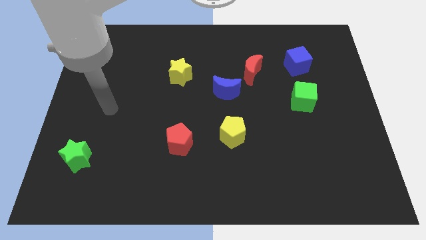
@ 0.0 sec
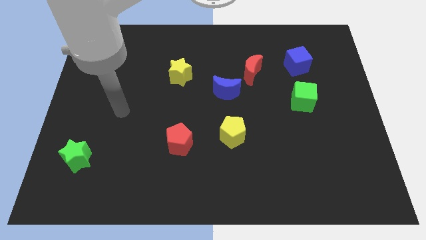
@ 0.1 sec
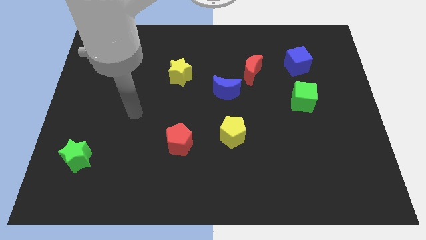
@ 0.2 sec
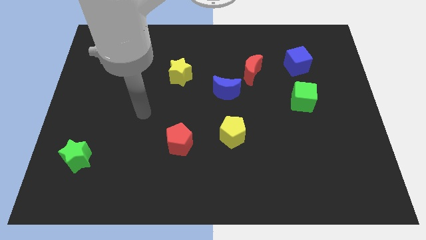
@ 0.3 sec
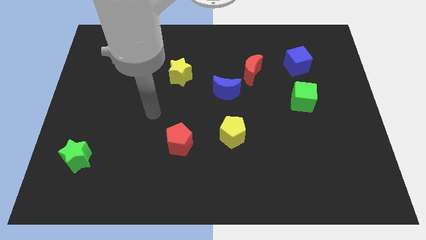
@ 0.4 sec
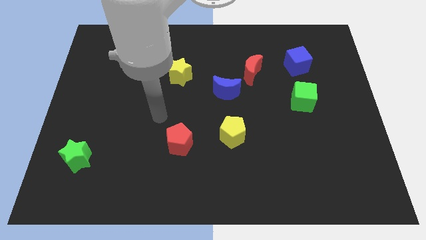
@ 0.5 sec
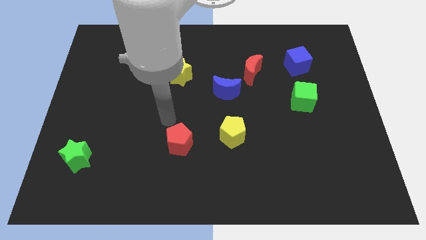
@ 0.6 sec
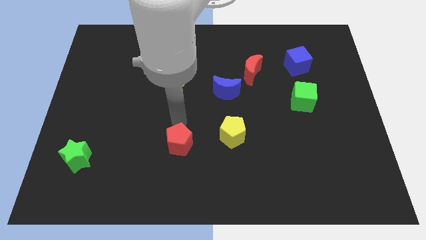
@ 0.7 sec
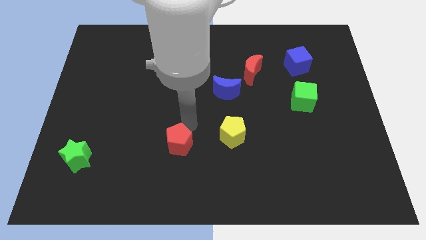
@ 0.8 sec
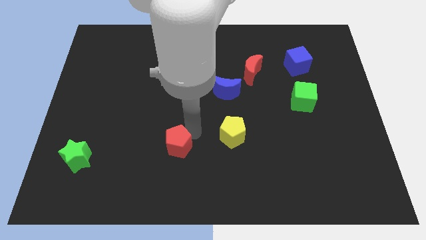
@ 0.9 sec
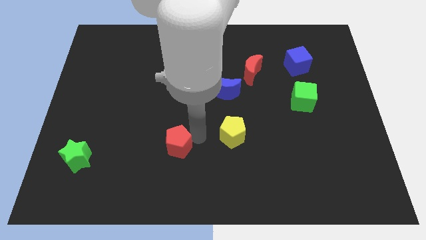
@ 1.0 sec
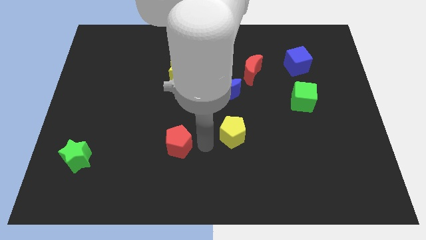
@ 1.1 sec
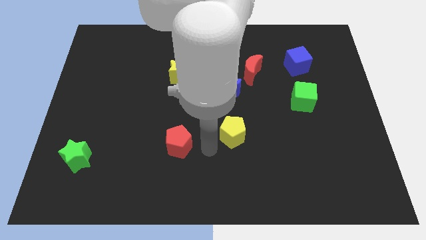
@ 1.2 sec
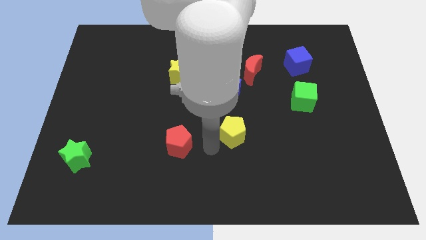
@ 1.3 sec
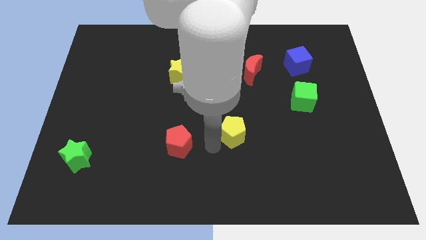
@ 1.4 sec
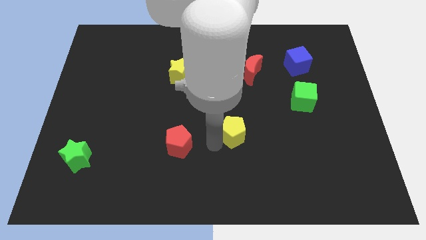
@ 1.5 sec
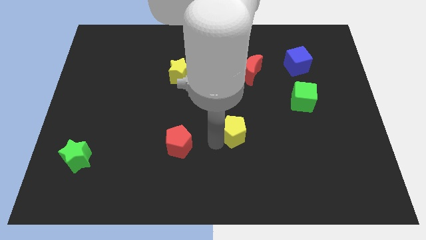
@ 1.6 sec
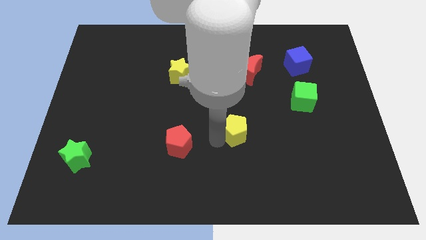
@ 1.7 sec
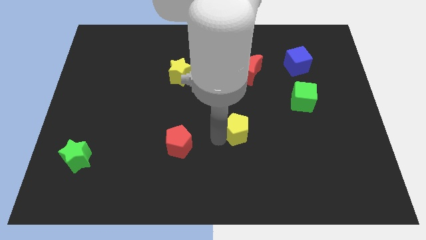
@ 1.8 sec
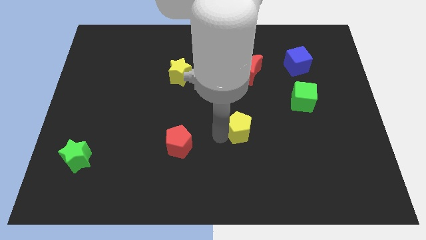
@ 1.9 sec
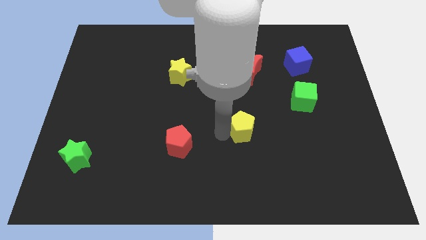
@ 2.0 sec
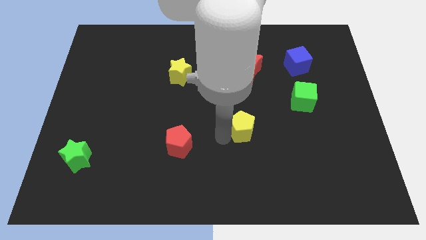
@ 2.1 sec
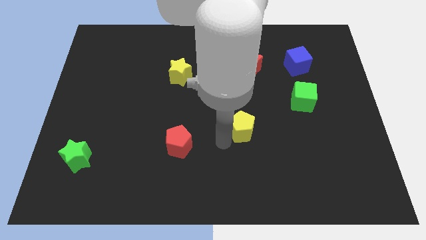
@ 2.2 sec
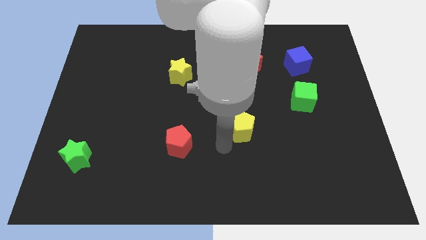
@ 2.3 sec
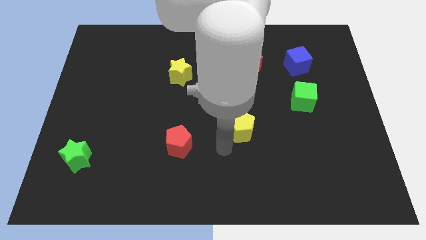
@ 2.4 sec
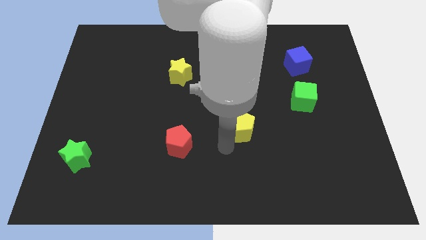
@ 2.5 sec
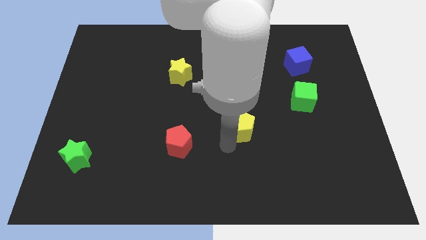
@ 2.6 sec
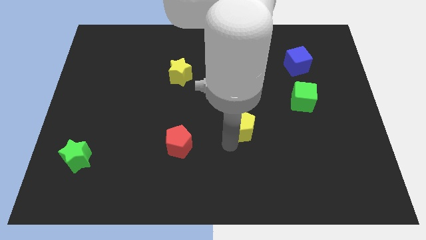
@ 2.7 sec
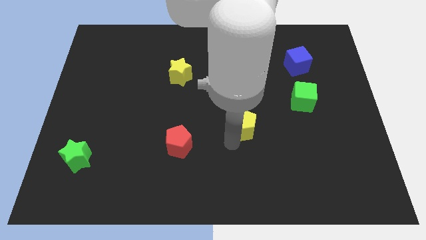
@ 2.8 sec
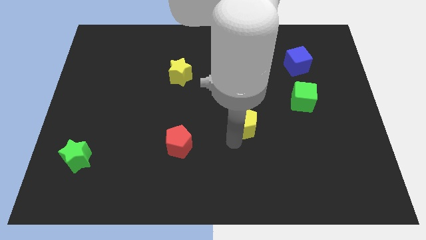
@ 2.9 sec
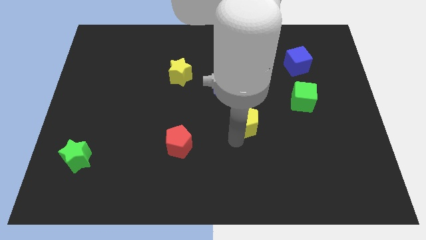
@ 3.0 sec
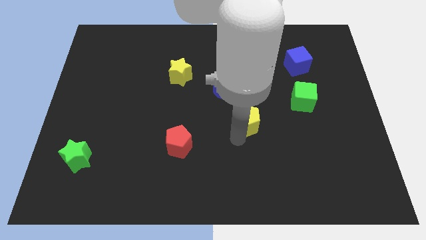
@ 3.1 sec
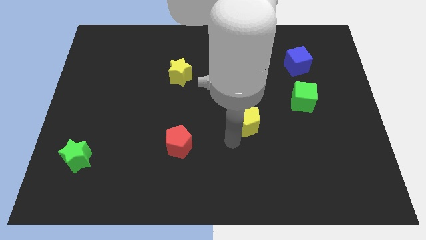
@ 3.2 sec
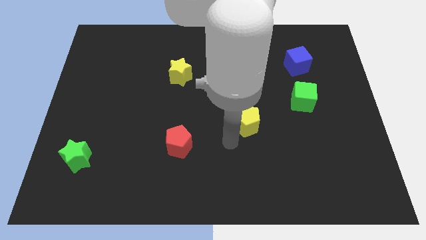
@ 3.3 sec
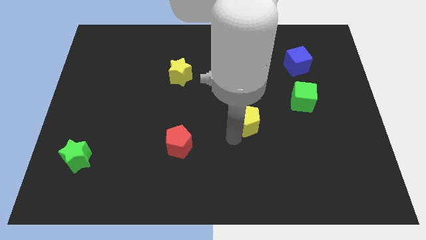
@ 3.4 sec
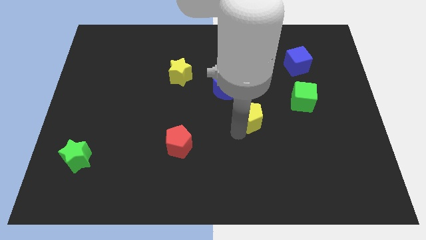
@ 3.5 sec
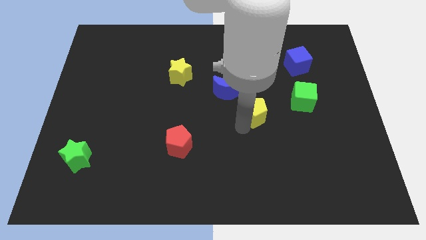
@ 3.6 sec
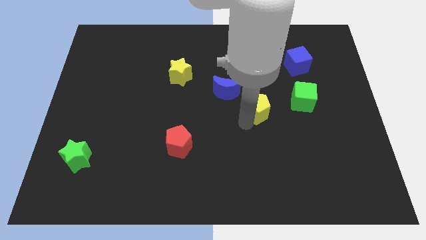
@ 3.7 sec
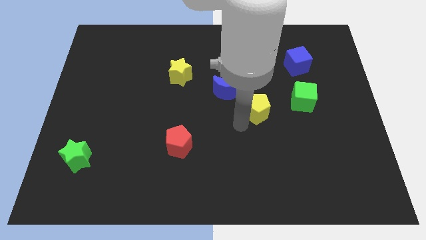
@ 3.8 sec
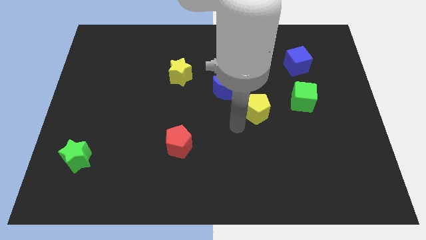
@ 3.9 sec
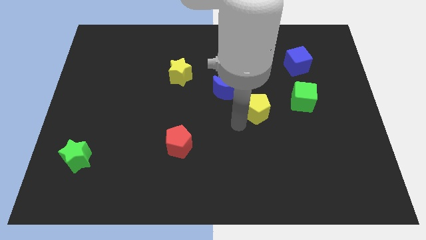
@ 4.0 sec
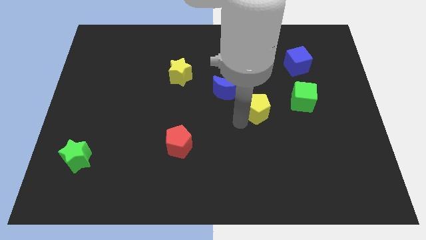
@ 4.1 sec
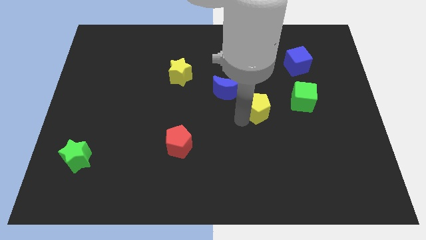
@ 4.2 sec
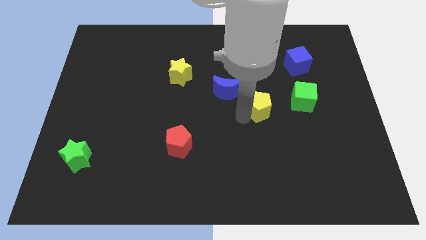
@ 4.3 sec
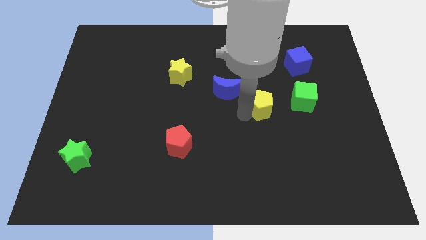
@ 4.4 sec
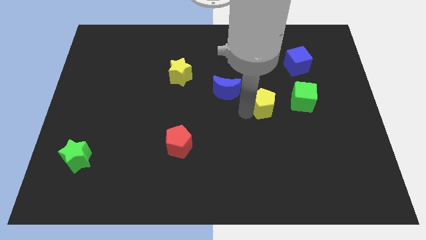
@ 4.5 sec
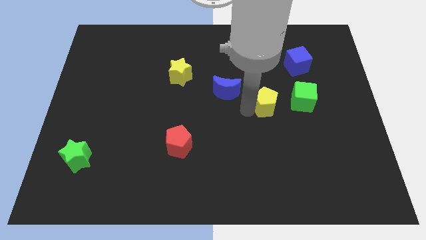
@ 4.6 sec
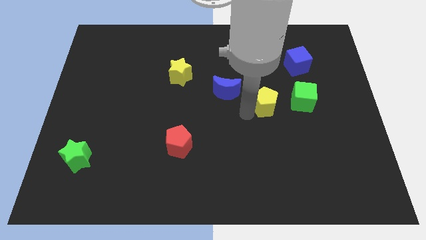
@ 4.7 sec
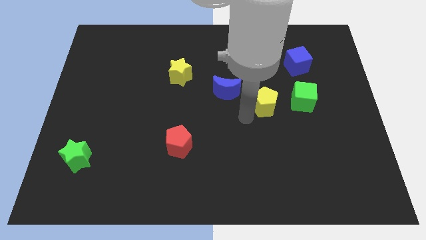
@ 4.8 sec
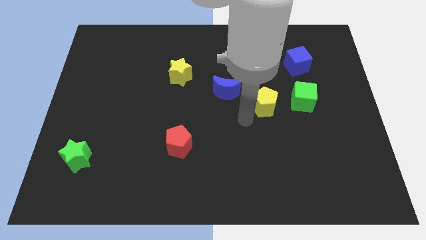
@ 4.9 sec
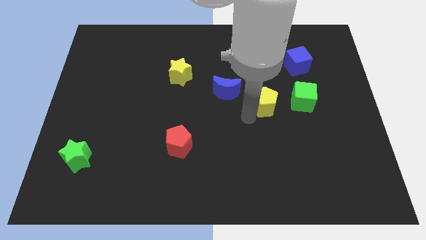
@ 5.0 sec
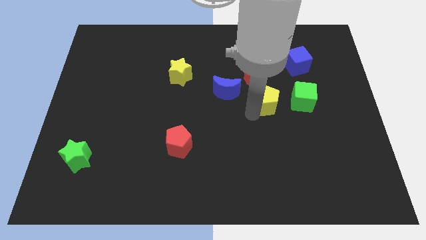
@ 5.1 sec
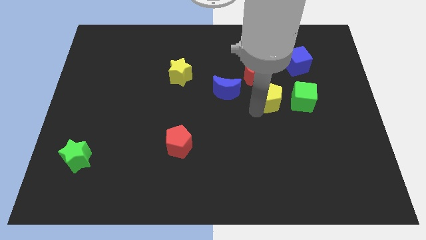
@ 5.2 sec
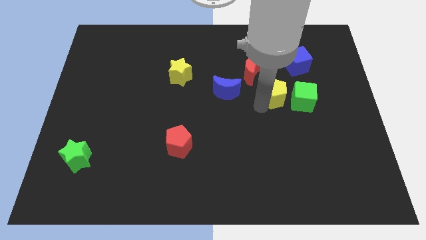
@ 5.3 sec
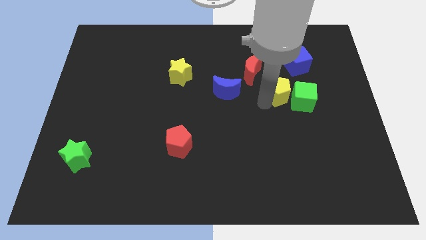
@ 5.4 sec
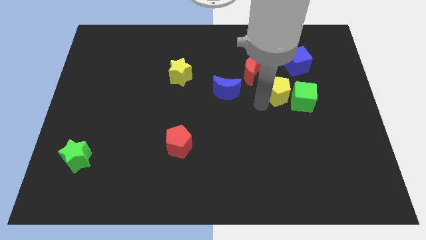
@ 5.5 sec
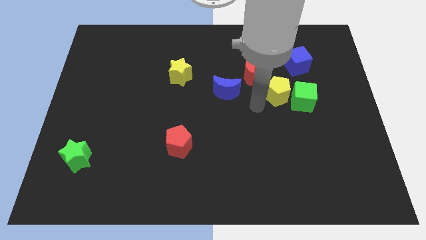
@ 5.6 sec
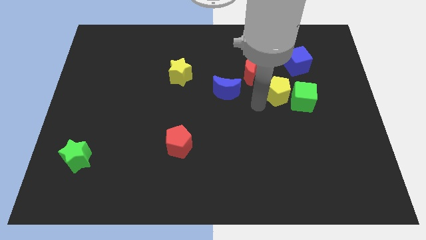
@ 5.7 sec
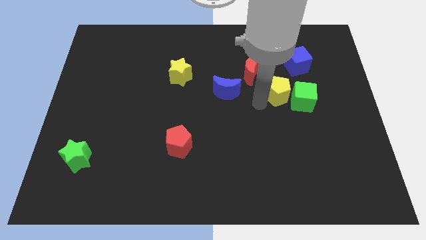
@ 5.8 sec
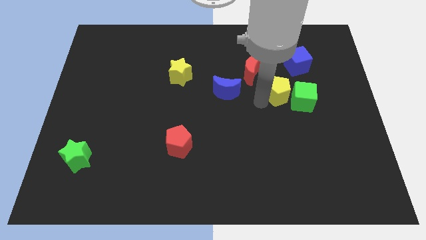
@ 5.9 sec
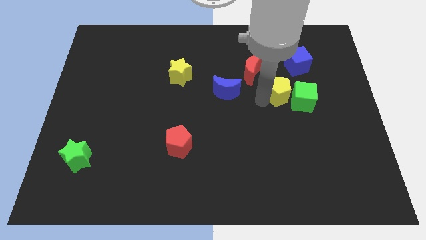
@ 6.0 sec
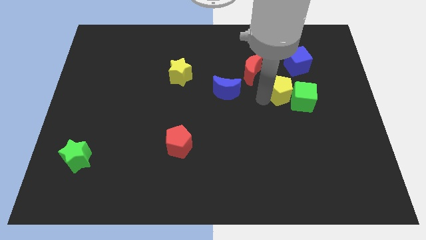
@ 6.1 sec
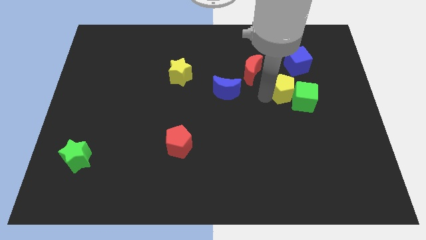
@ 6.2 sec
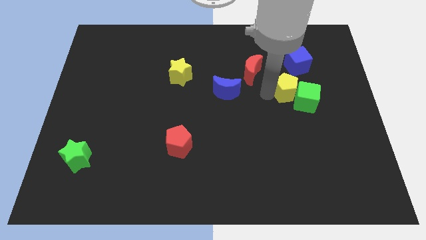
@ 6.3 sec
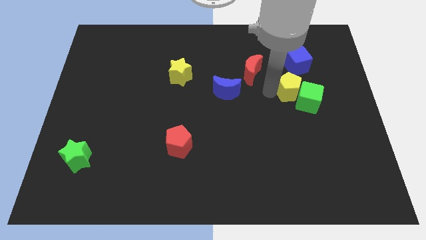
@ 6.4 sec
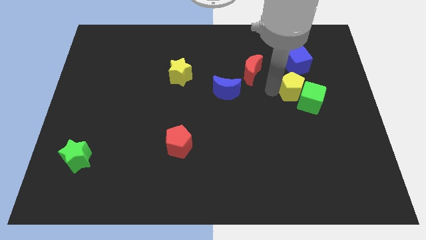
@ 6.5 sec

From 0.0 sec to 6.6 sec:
slide the yellow pentagon up and to the right

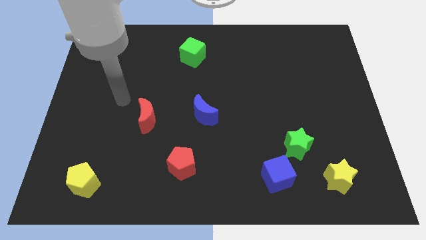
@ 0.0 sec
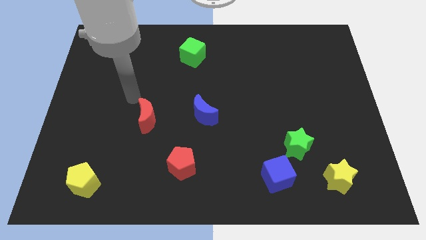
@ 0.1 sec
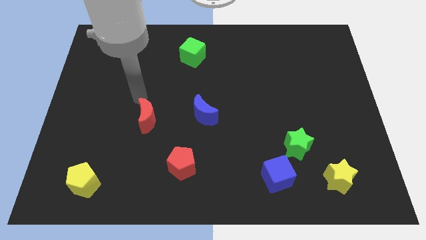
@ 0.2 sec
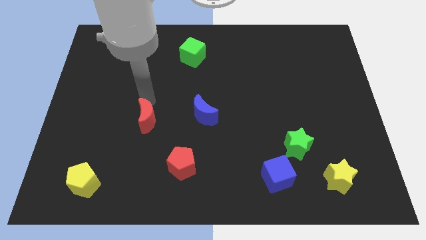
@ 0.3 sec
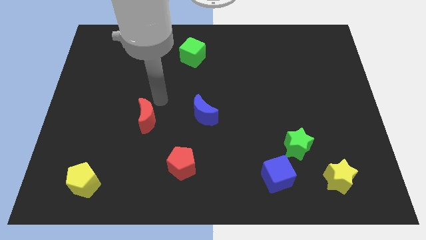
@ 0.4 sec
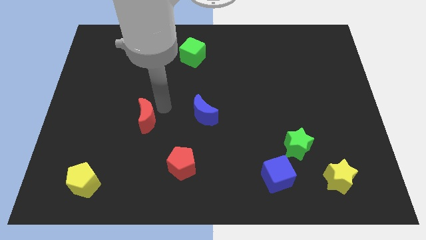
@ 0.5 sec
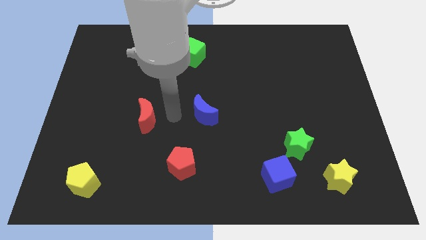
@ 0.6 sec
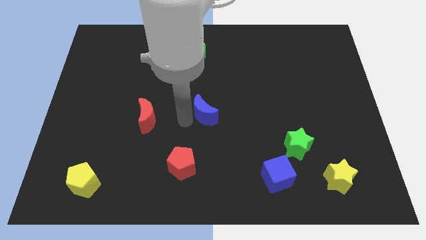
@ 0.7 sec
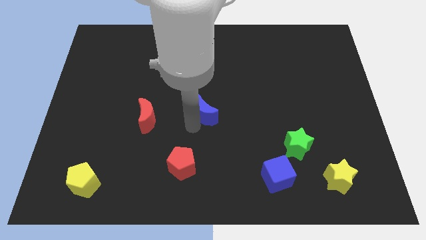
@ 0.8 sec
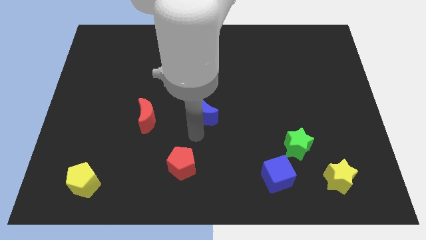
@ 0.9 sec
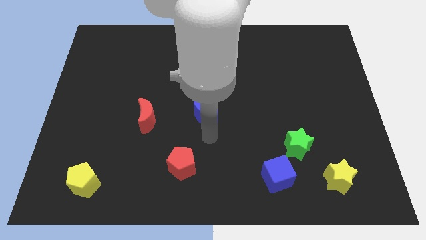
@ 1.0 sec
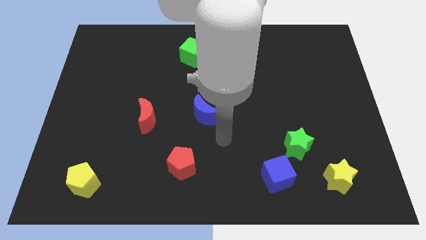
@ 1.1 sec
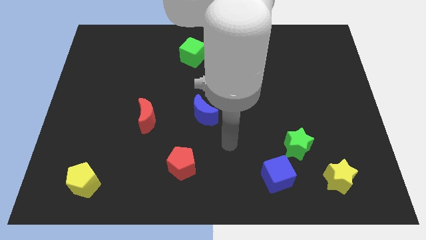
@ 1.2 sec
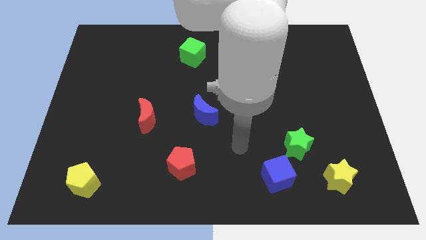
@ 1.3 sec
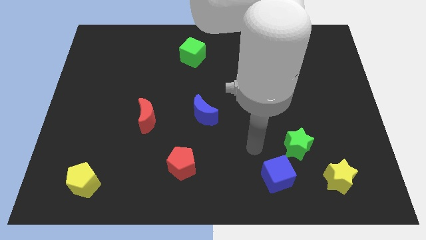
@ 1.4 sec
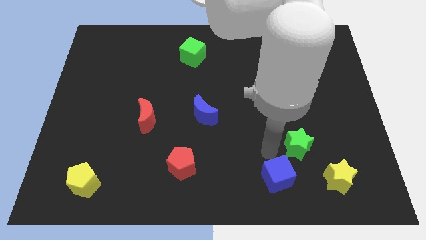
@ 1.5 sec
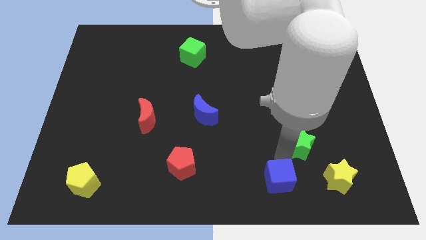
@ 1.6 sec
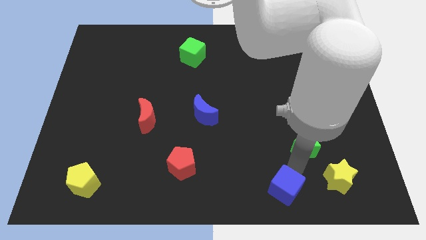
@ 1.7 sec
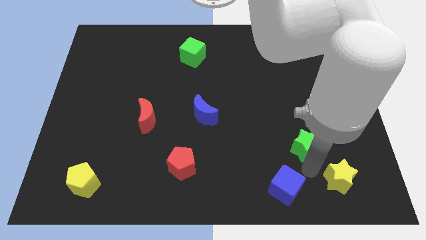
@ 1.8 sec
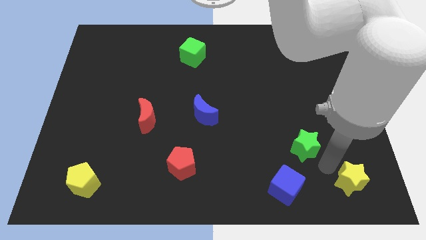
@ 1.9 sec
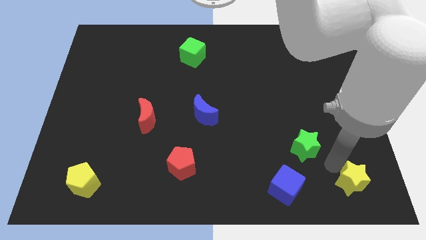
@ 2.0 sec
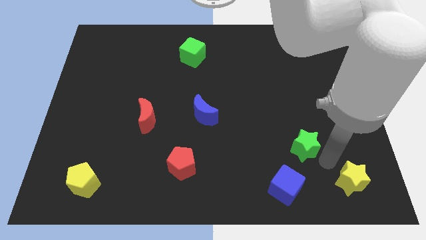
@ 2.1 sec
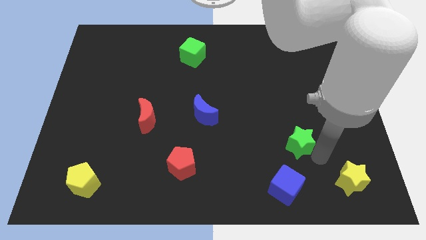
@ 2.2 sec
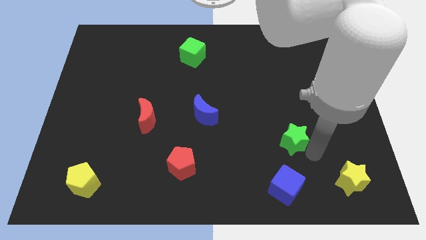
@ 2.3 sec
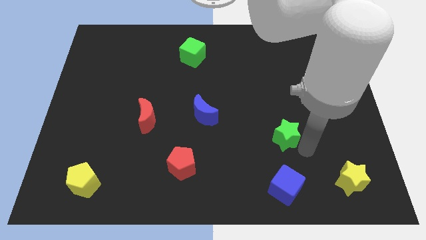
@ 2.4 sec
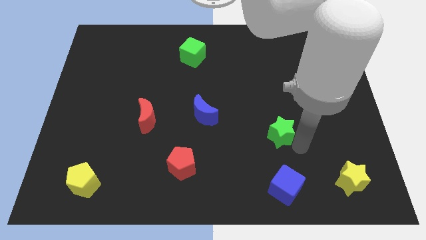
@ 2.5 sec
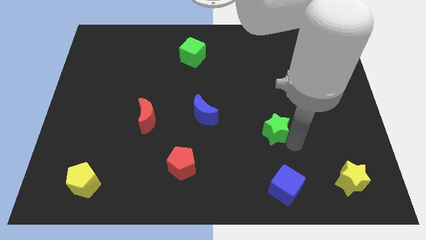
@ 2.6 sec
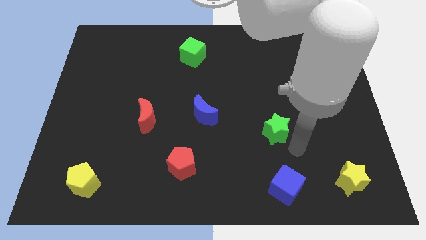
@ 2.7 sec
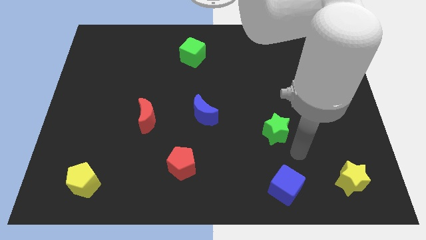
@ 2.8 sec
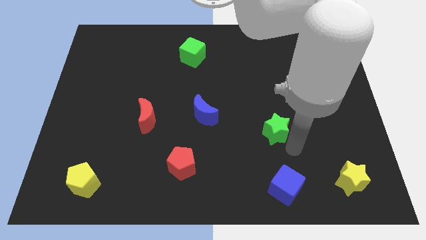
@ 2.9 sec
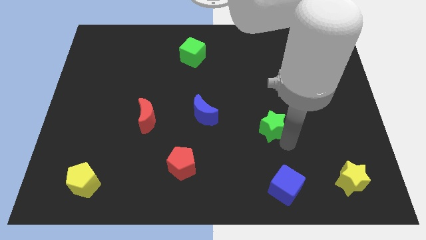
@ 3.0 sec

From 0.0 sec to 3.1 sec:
slightly push the green star up and then left
